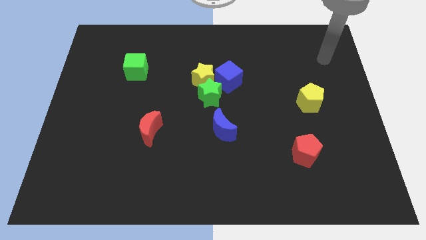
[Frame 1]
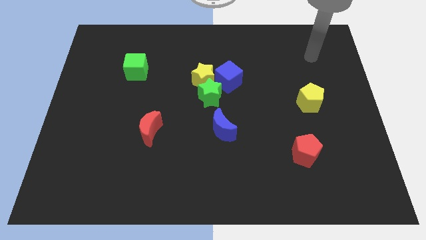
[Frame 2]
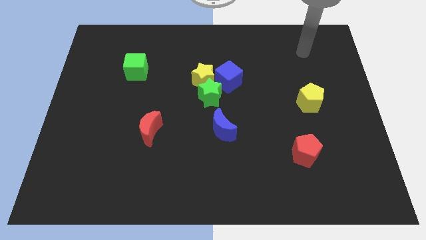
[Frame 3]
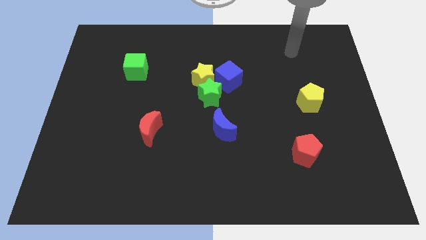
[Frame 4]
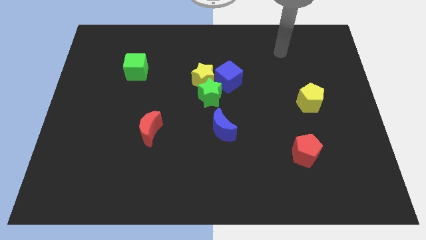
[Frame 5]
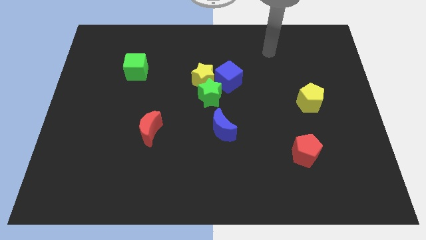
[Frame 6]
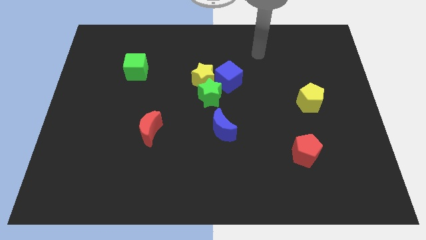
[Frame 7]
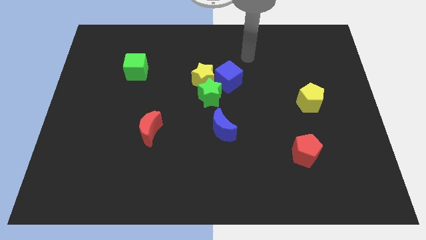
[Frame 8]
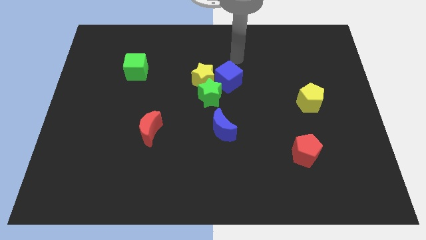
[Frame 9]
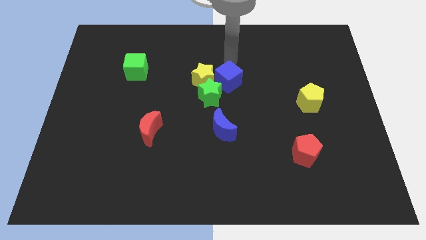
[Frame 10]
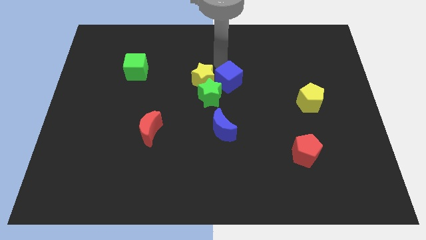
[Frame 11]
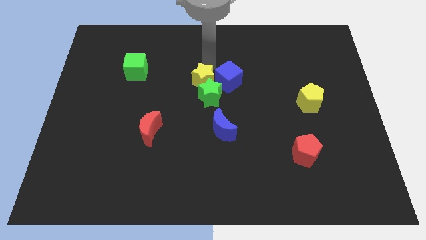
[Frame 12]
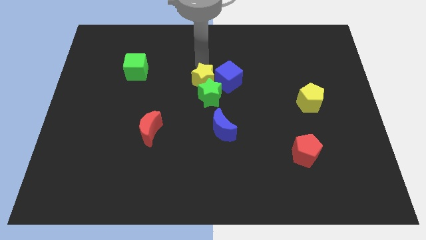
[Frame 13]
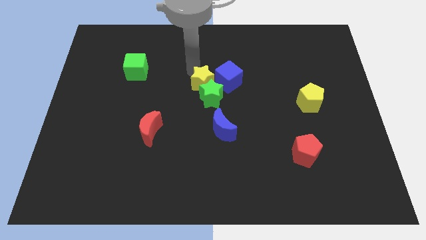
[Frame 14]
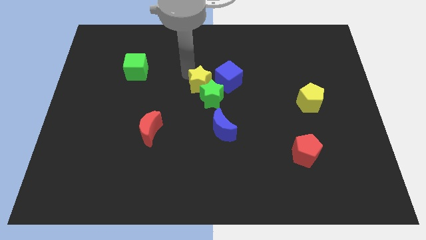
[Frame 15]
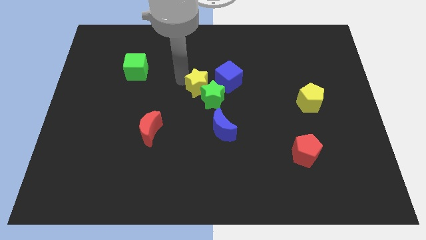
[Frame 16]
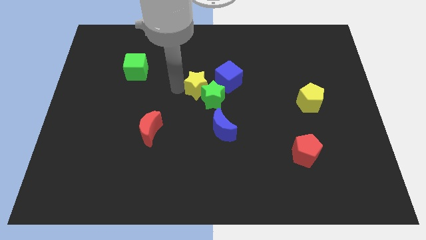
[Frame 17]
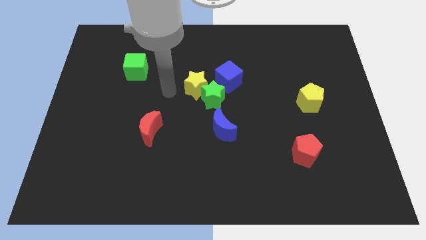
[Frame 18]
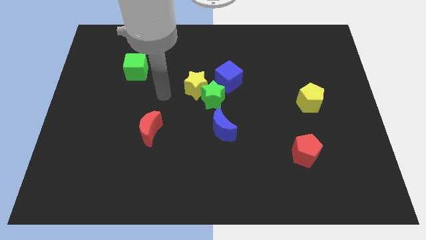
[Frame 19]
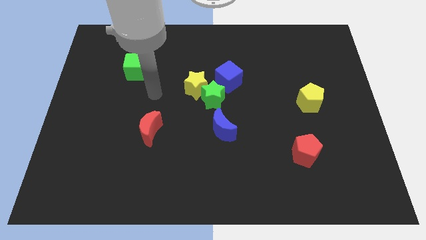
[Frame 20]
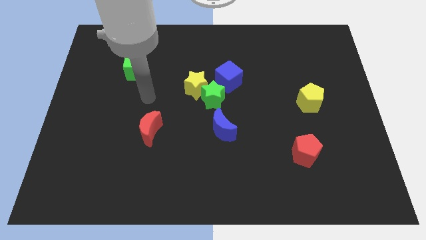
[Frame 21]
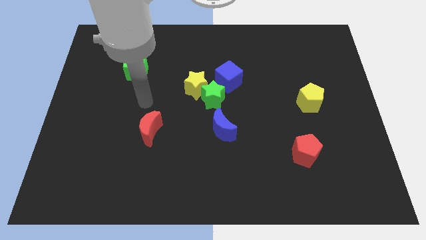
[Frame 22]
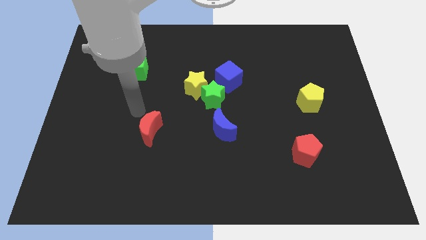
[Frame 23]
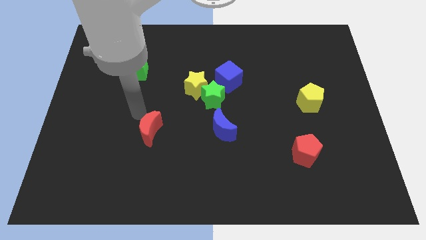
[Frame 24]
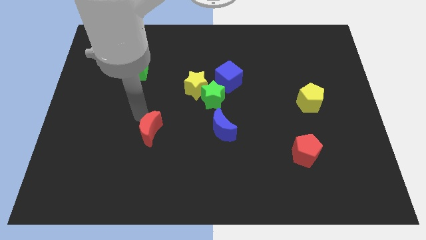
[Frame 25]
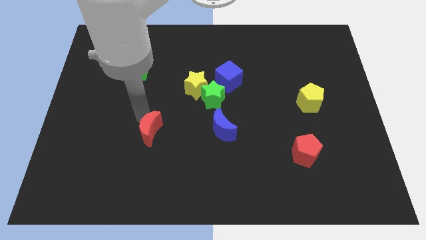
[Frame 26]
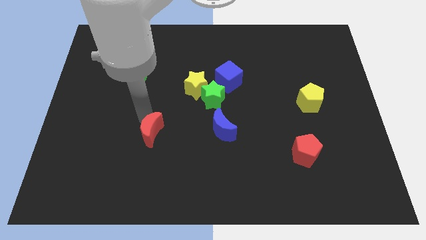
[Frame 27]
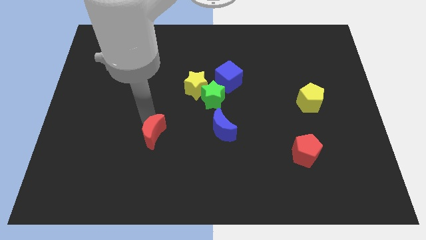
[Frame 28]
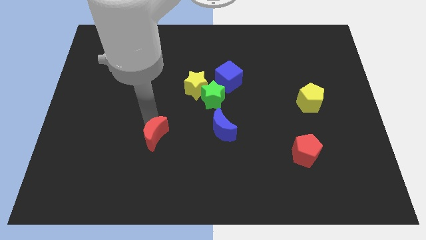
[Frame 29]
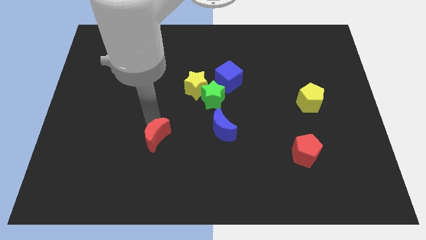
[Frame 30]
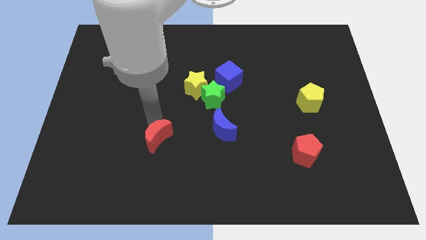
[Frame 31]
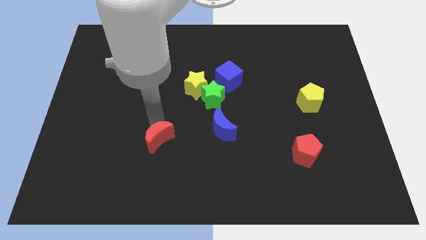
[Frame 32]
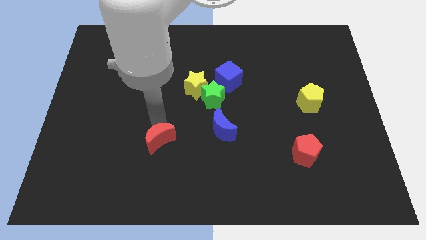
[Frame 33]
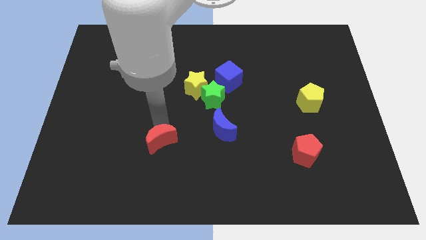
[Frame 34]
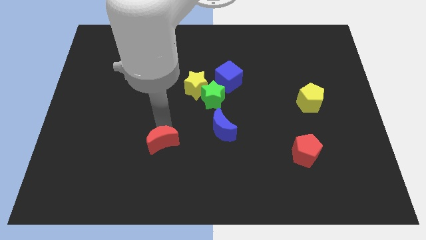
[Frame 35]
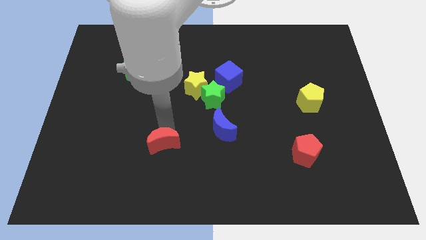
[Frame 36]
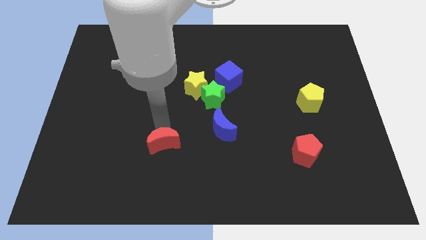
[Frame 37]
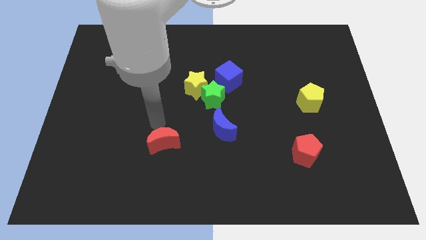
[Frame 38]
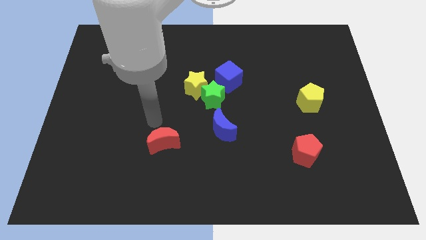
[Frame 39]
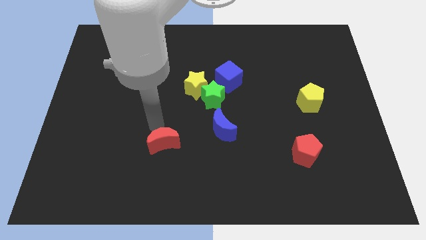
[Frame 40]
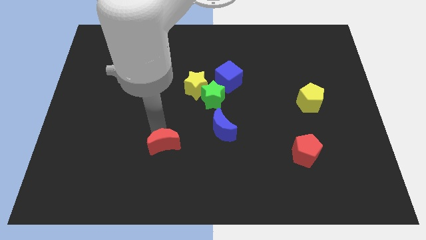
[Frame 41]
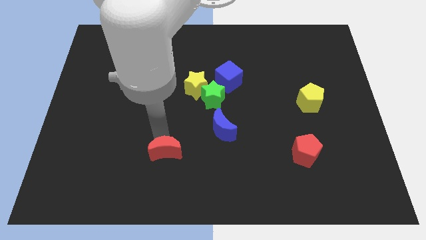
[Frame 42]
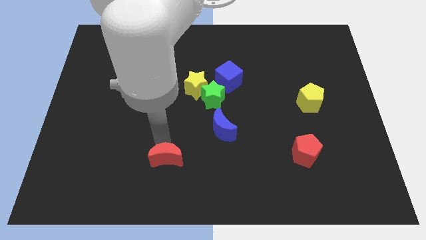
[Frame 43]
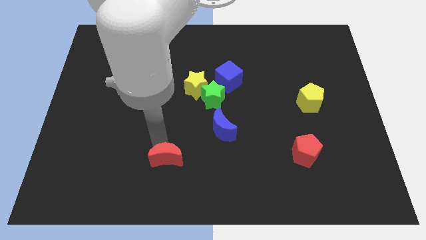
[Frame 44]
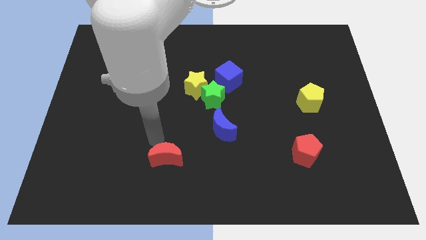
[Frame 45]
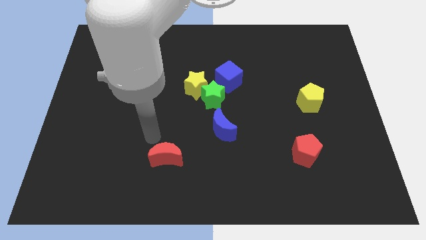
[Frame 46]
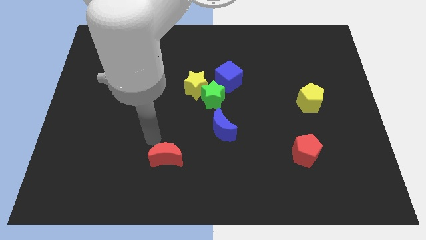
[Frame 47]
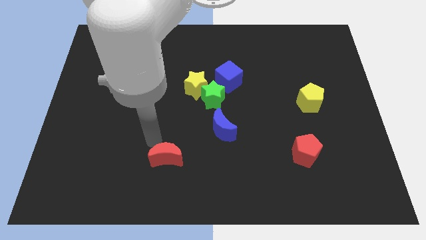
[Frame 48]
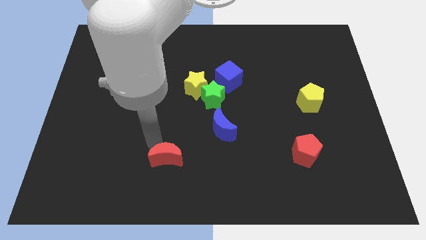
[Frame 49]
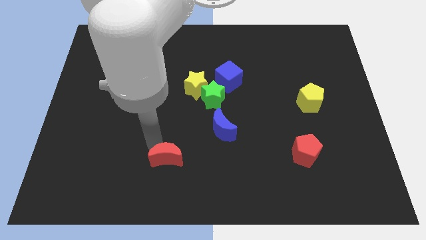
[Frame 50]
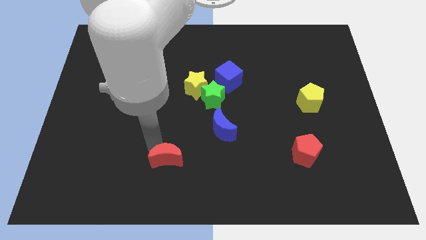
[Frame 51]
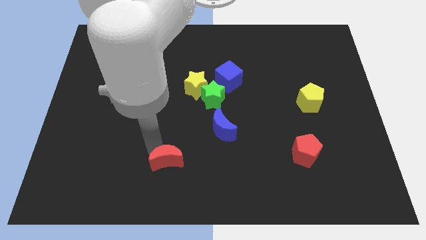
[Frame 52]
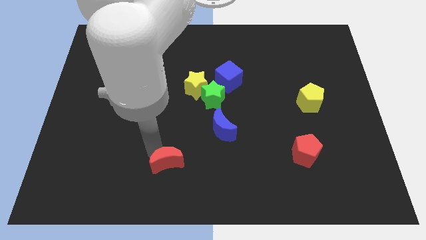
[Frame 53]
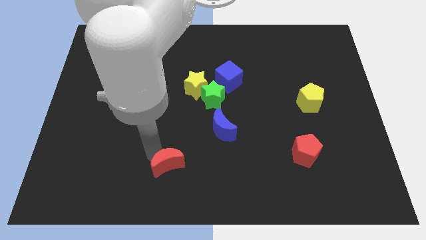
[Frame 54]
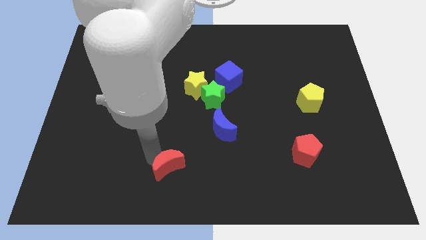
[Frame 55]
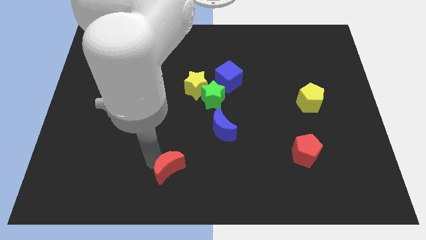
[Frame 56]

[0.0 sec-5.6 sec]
slide the red moon to the bottom side

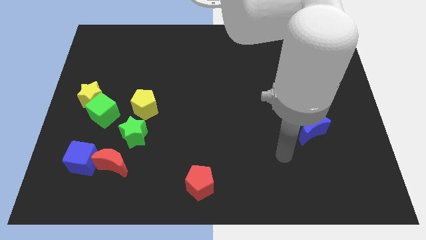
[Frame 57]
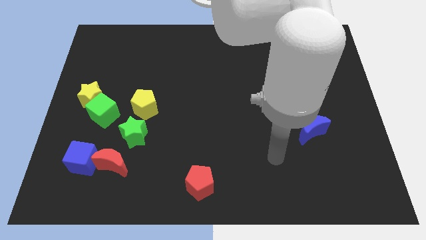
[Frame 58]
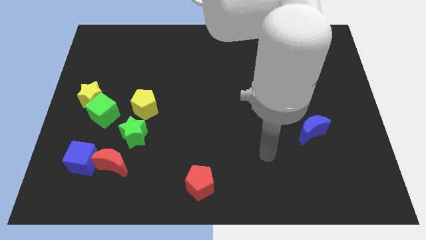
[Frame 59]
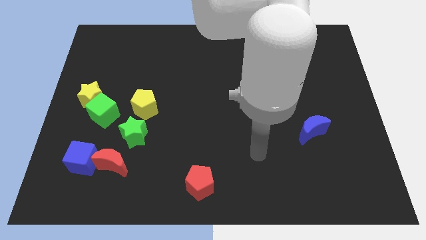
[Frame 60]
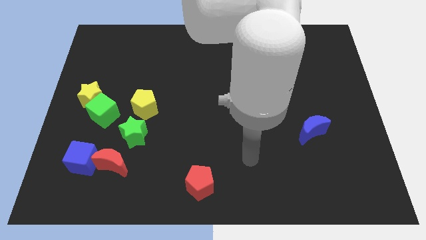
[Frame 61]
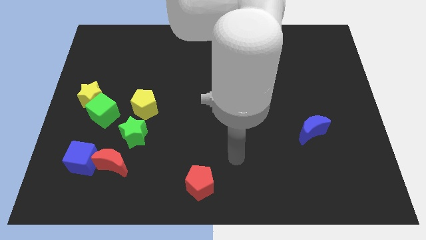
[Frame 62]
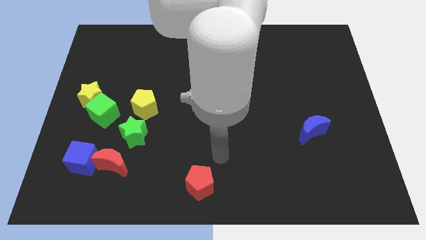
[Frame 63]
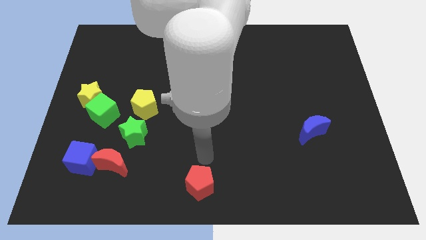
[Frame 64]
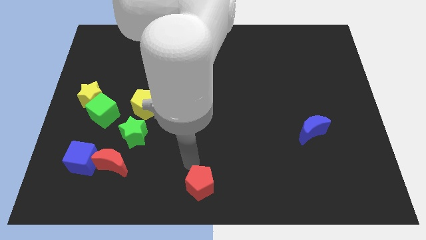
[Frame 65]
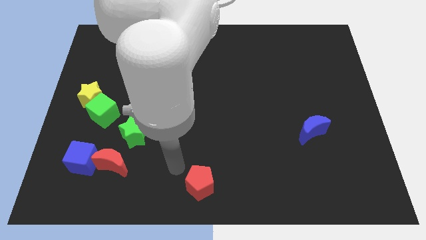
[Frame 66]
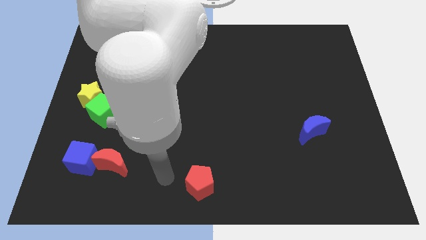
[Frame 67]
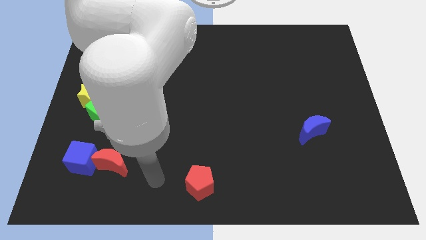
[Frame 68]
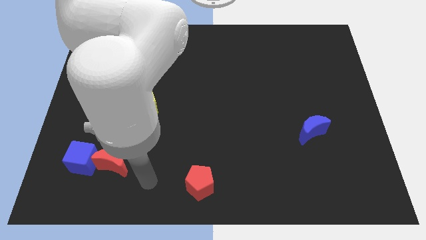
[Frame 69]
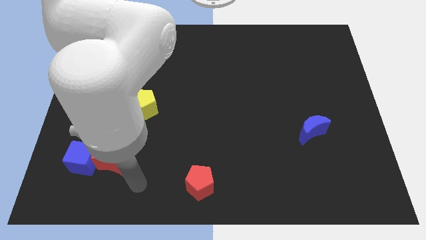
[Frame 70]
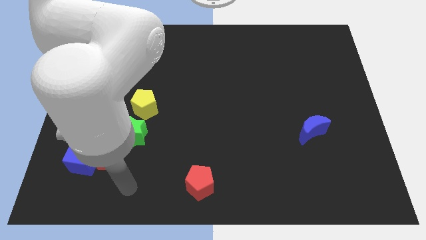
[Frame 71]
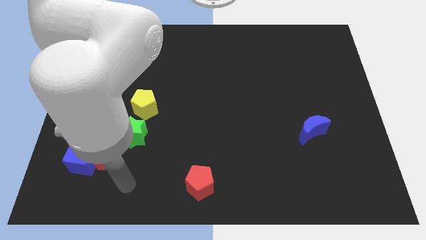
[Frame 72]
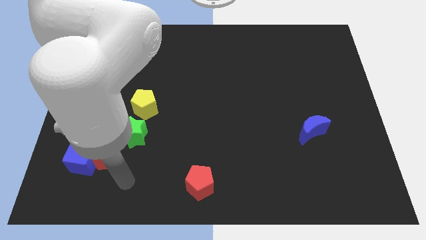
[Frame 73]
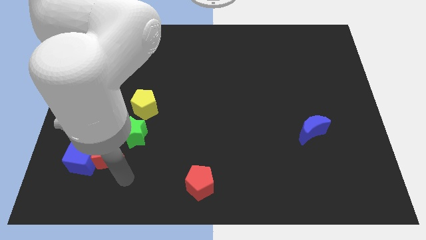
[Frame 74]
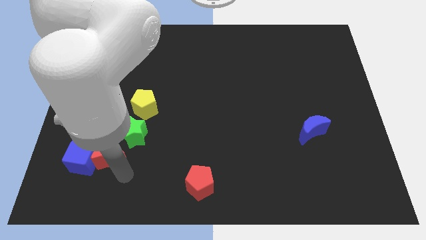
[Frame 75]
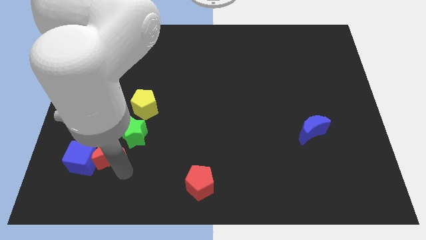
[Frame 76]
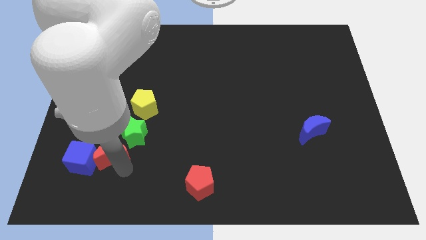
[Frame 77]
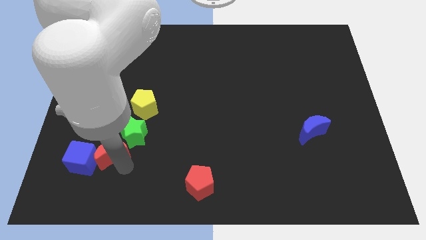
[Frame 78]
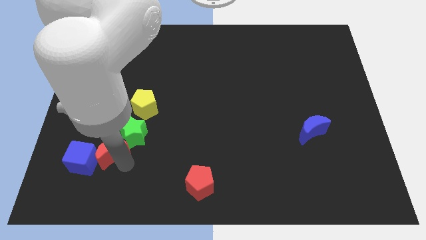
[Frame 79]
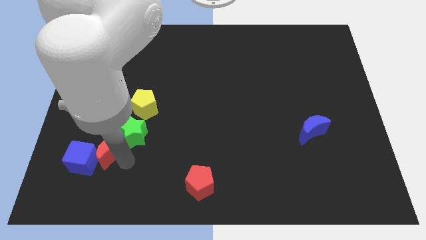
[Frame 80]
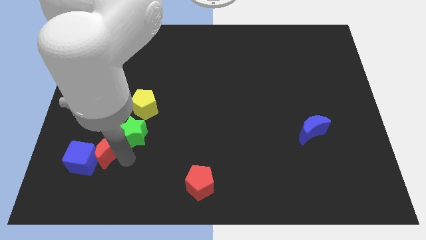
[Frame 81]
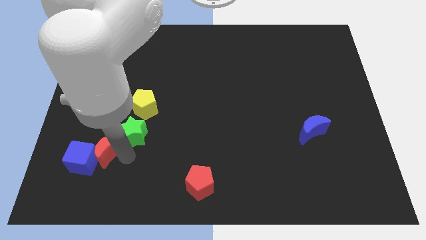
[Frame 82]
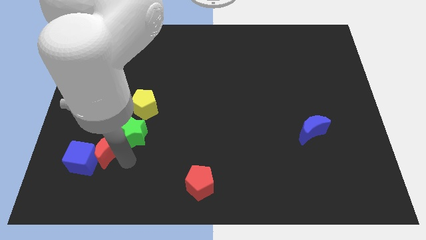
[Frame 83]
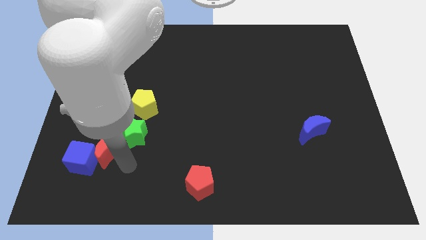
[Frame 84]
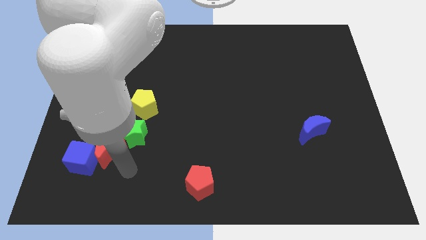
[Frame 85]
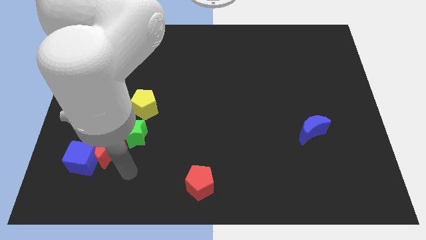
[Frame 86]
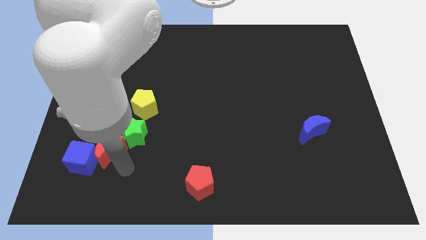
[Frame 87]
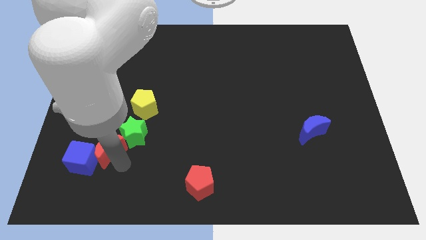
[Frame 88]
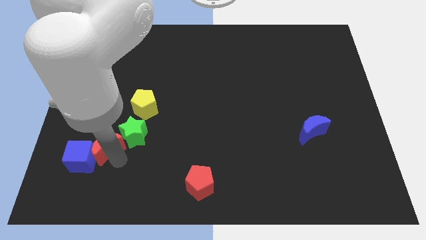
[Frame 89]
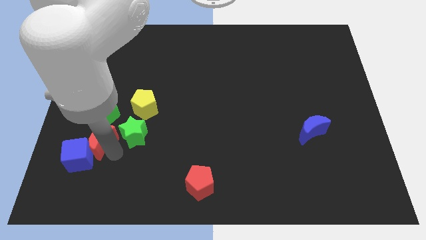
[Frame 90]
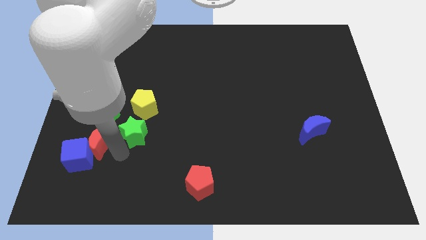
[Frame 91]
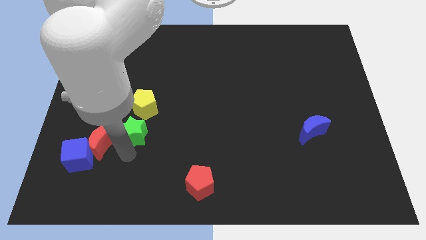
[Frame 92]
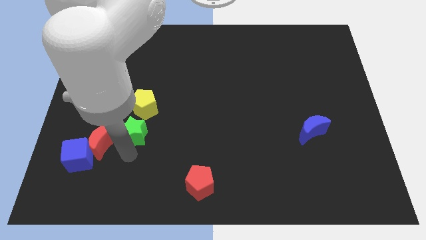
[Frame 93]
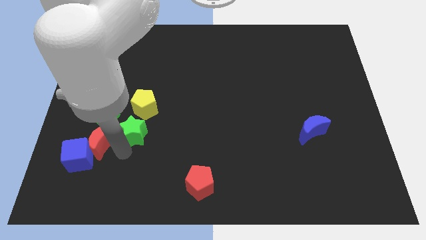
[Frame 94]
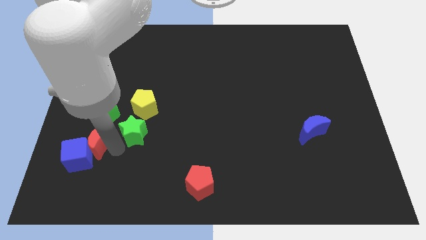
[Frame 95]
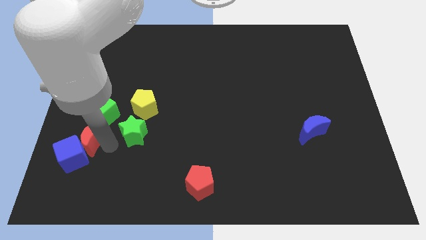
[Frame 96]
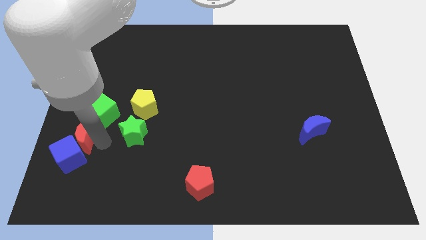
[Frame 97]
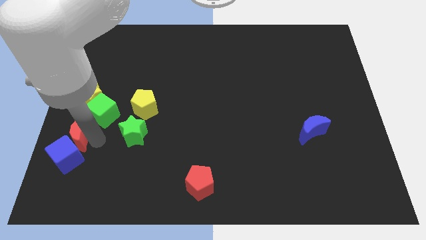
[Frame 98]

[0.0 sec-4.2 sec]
move the red moon to the left side of the board
